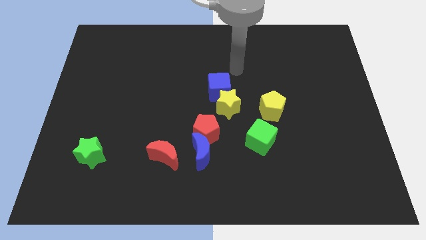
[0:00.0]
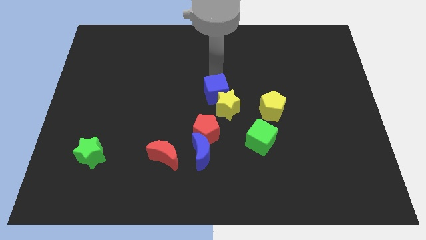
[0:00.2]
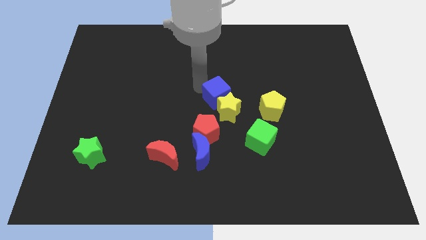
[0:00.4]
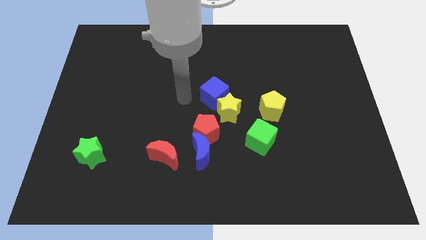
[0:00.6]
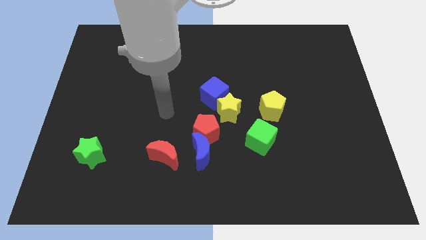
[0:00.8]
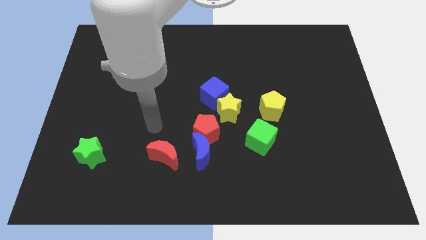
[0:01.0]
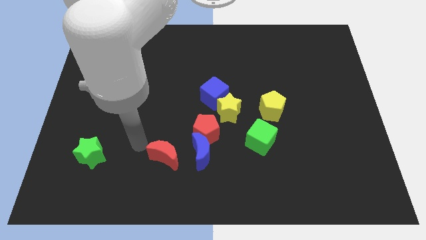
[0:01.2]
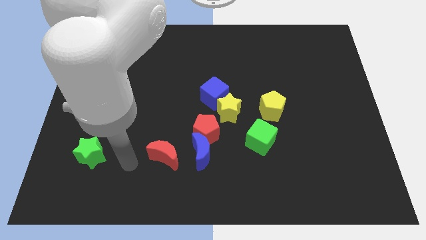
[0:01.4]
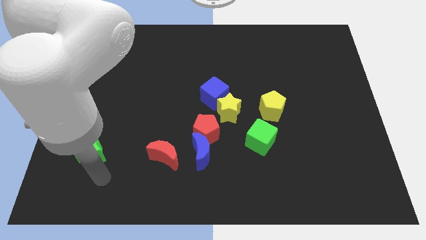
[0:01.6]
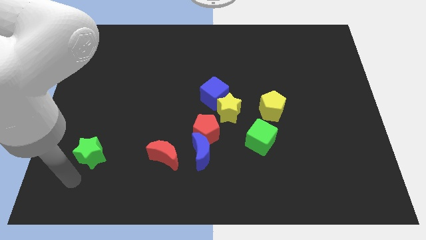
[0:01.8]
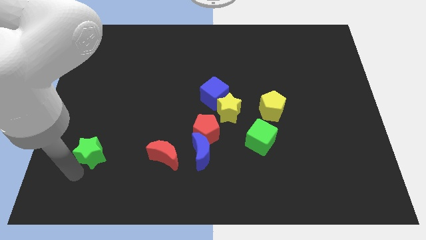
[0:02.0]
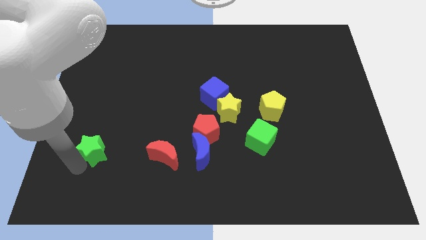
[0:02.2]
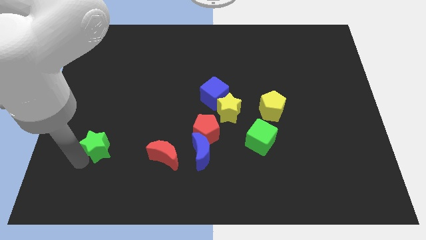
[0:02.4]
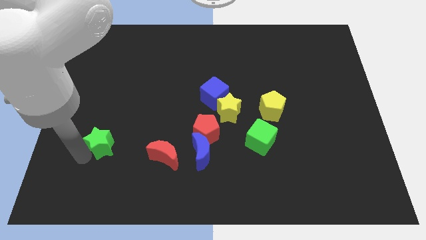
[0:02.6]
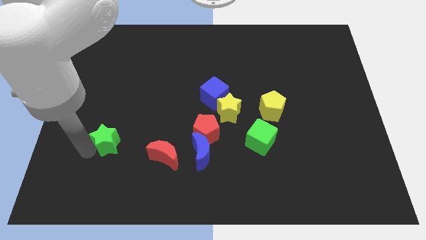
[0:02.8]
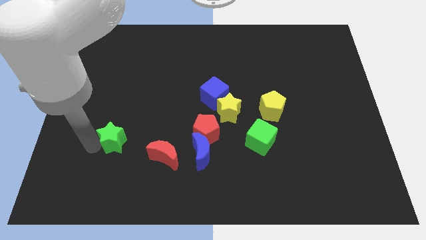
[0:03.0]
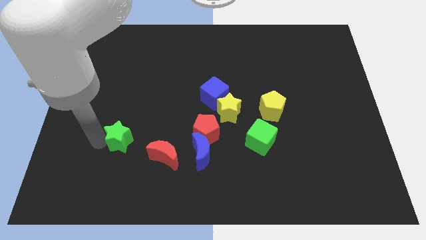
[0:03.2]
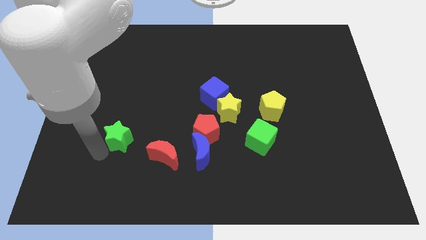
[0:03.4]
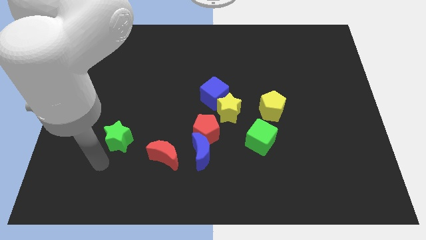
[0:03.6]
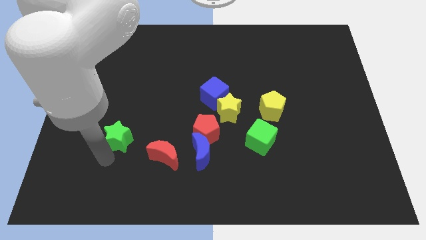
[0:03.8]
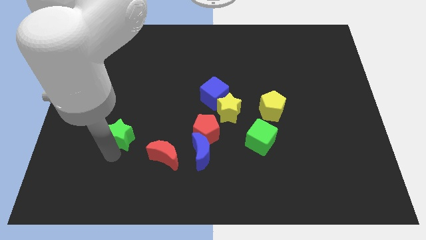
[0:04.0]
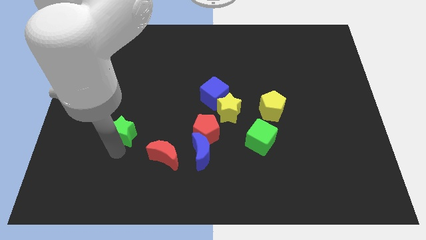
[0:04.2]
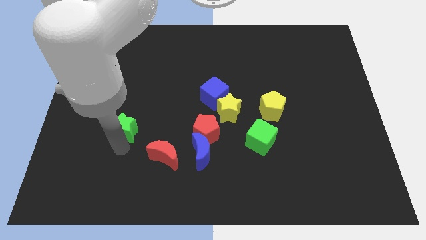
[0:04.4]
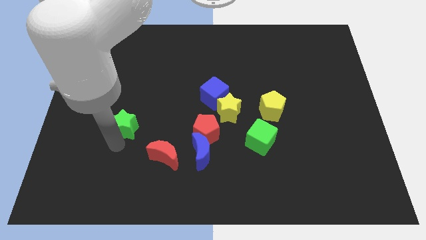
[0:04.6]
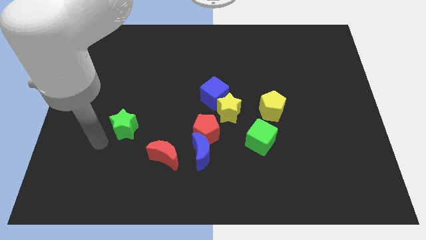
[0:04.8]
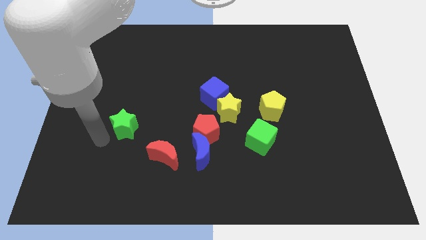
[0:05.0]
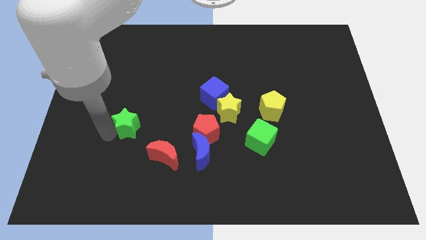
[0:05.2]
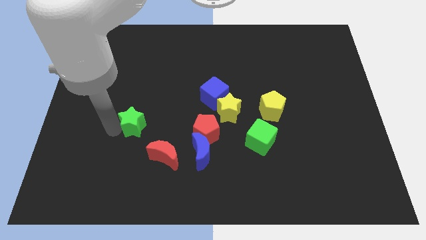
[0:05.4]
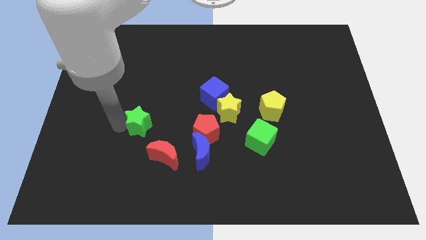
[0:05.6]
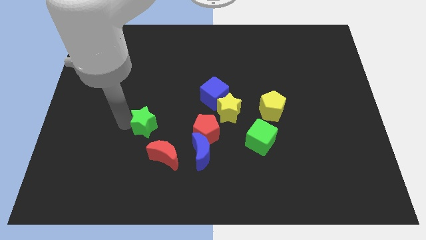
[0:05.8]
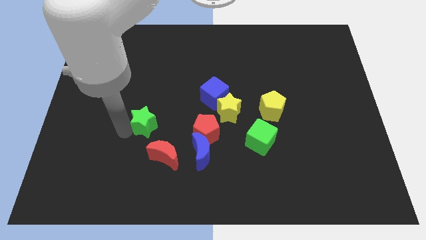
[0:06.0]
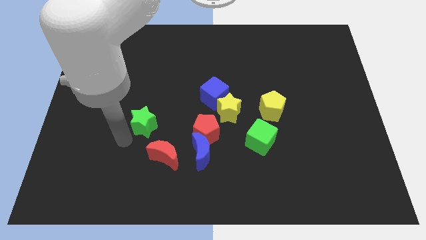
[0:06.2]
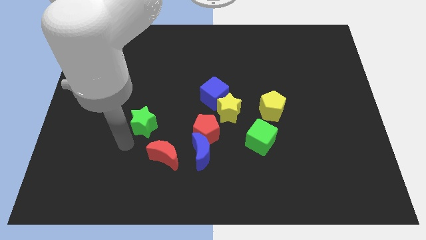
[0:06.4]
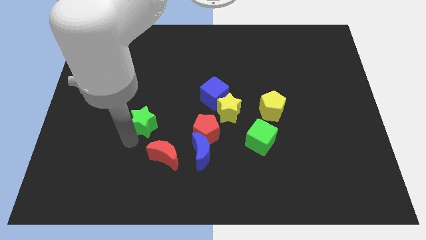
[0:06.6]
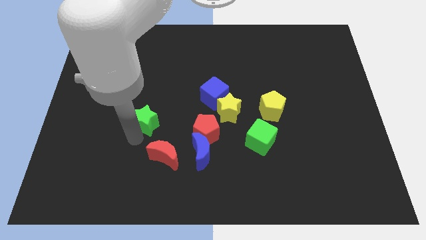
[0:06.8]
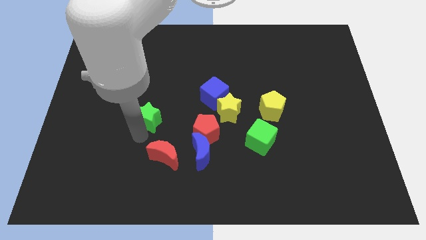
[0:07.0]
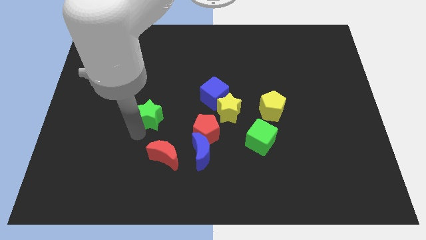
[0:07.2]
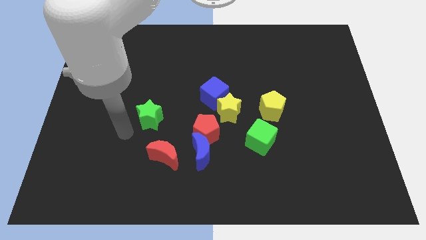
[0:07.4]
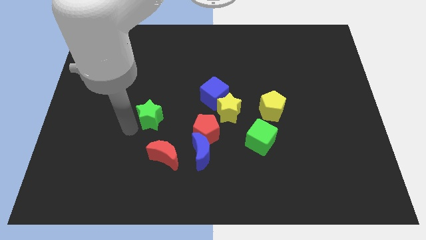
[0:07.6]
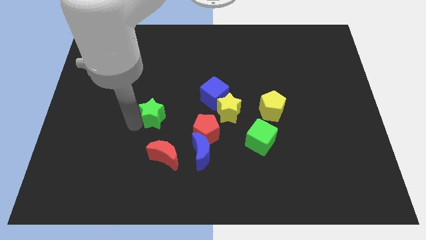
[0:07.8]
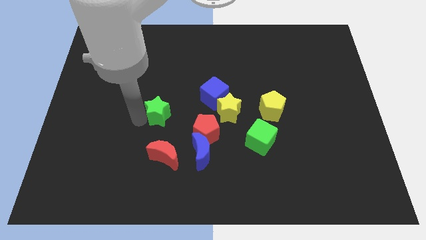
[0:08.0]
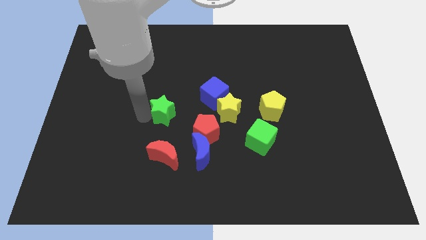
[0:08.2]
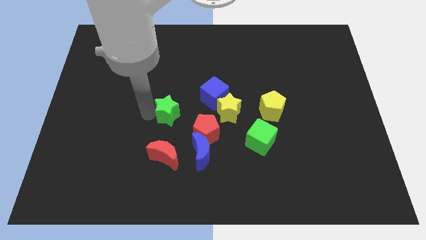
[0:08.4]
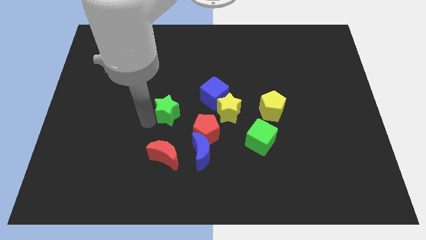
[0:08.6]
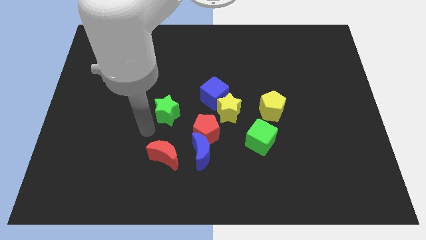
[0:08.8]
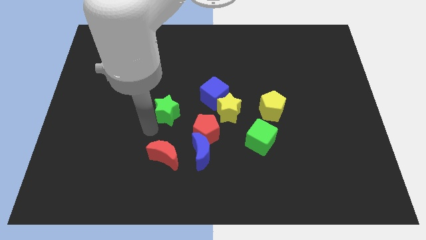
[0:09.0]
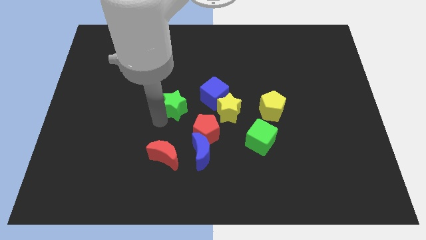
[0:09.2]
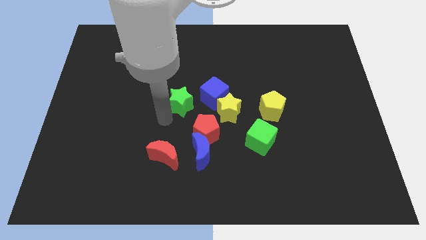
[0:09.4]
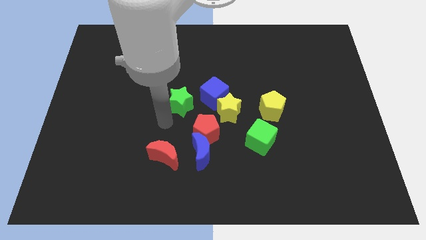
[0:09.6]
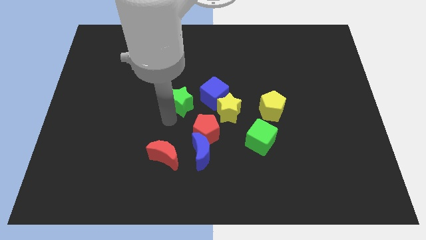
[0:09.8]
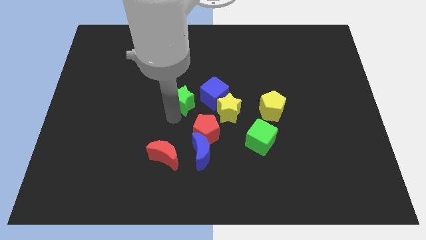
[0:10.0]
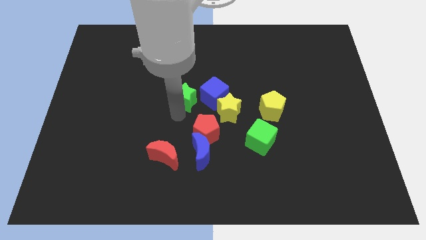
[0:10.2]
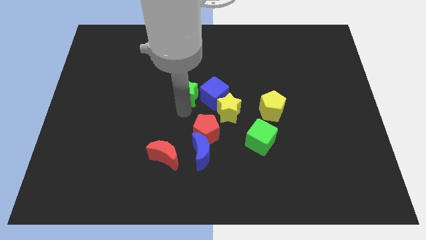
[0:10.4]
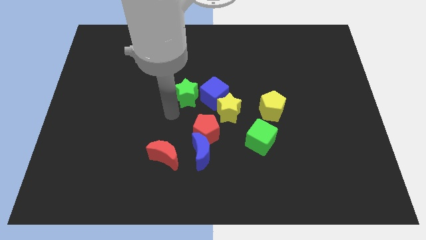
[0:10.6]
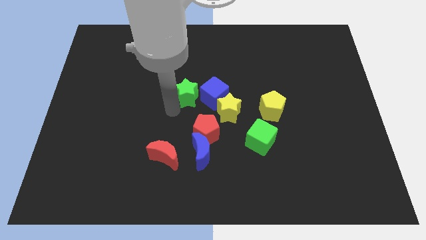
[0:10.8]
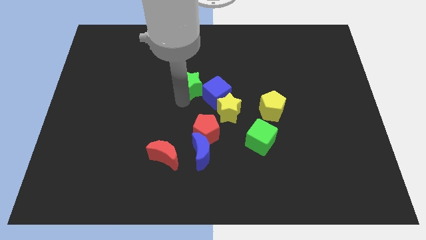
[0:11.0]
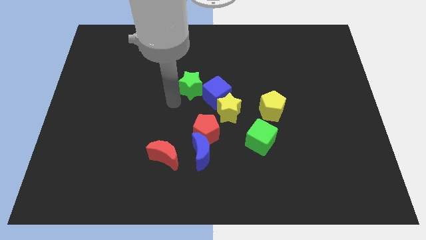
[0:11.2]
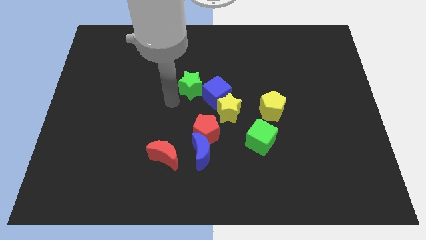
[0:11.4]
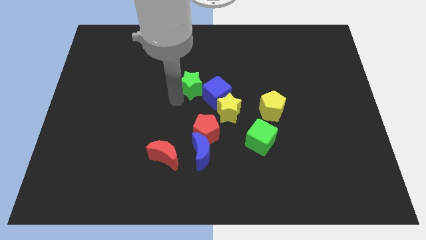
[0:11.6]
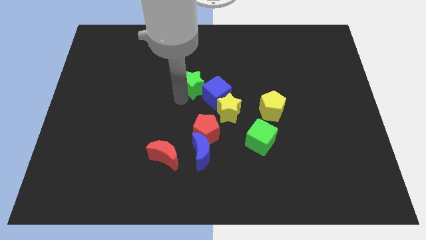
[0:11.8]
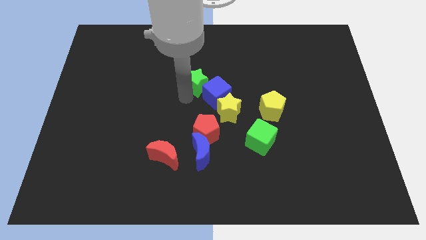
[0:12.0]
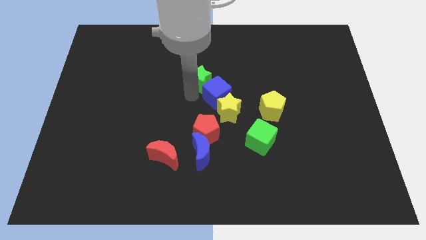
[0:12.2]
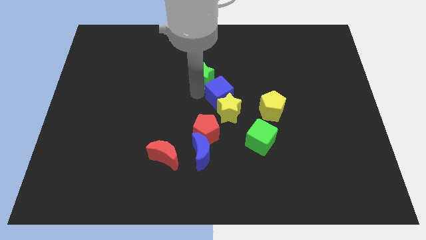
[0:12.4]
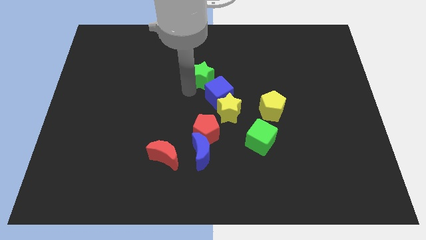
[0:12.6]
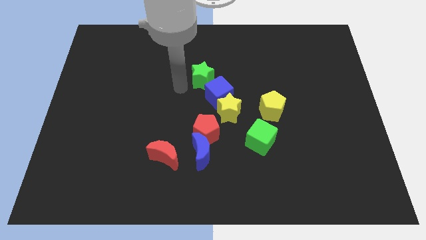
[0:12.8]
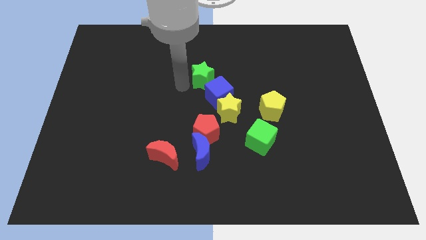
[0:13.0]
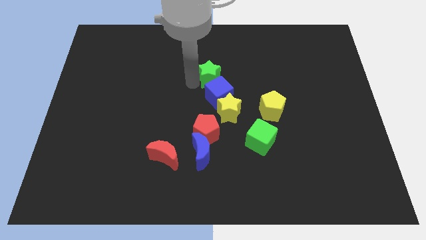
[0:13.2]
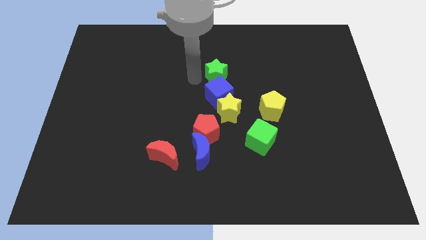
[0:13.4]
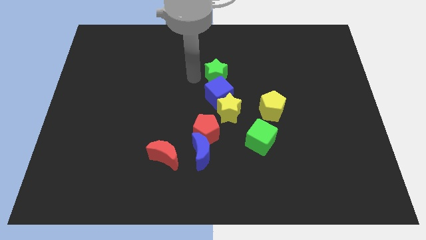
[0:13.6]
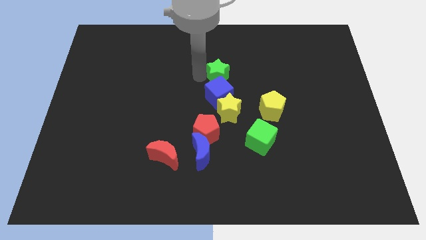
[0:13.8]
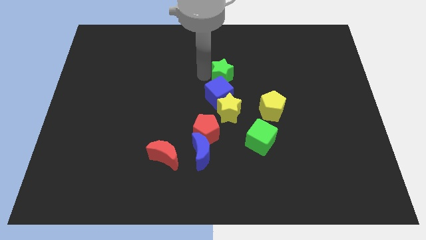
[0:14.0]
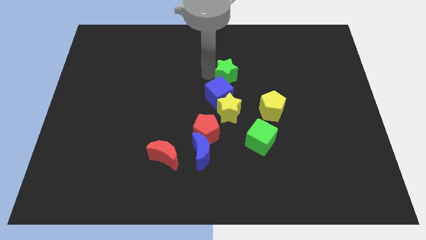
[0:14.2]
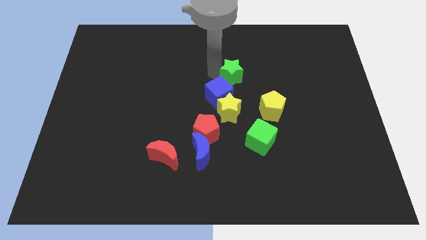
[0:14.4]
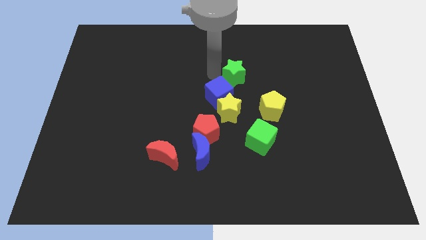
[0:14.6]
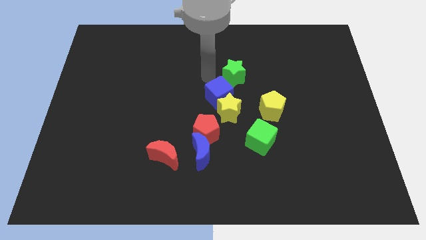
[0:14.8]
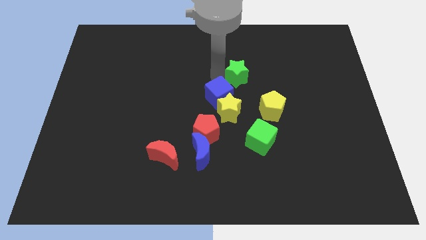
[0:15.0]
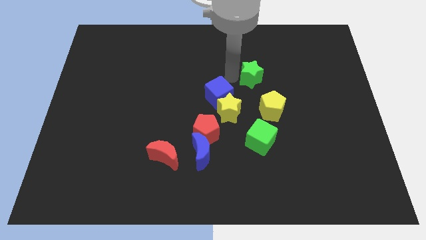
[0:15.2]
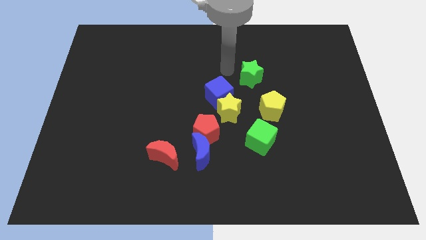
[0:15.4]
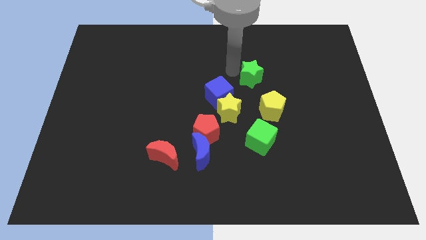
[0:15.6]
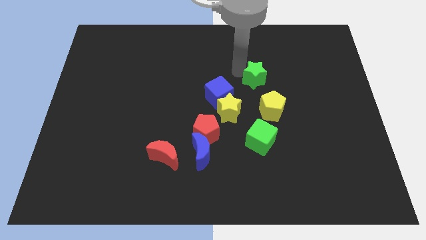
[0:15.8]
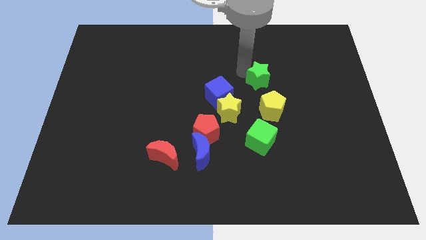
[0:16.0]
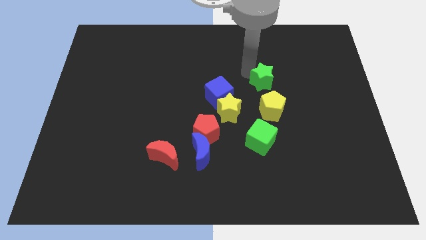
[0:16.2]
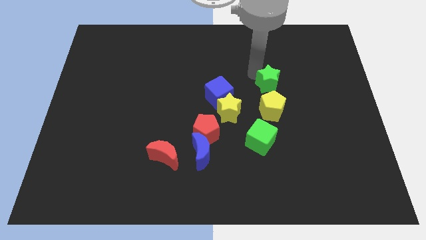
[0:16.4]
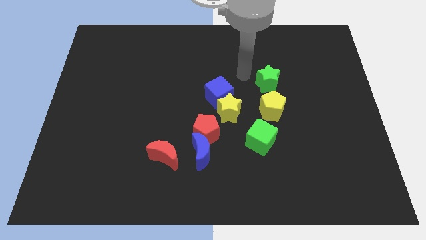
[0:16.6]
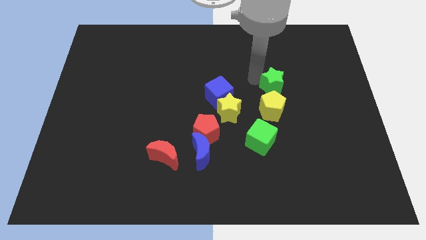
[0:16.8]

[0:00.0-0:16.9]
move the green star diagonally up and to the right of the yellow pentagon
